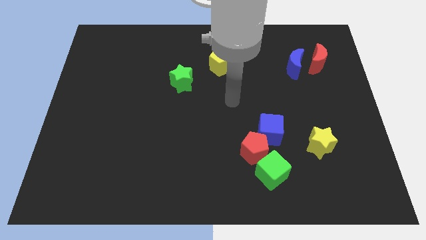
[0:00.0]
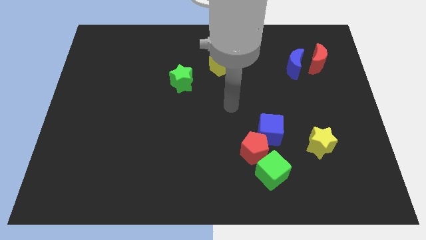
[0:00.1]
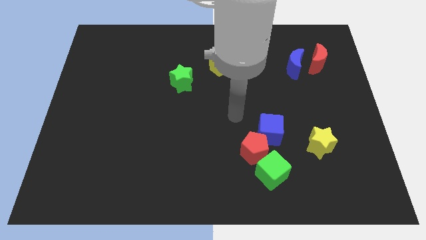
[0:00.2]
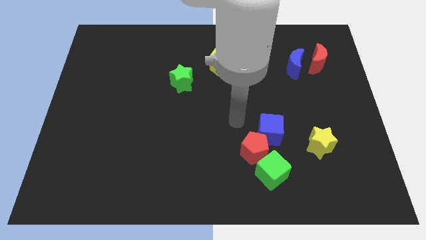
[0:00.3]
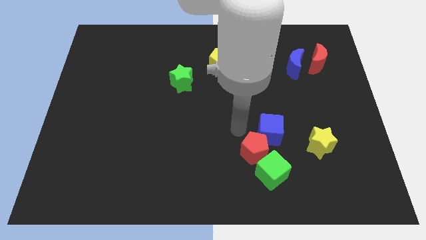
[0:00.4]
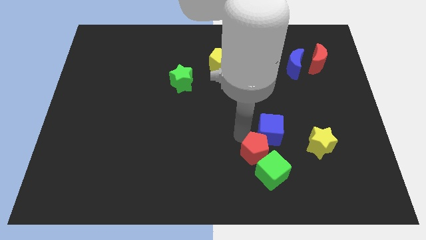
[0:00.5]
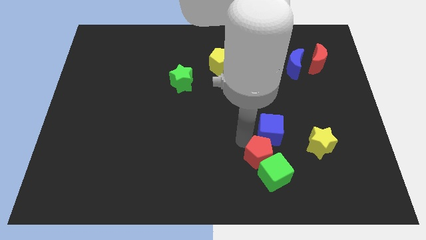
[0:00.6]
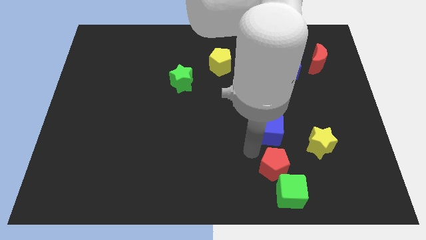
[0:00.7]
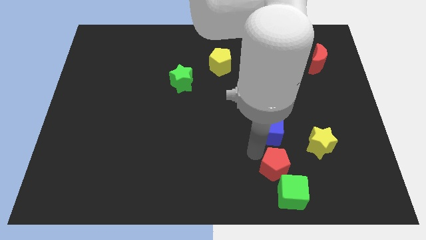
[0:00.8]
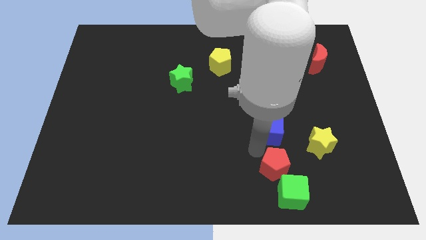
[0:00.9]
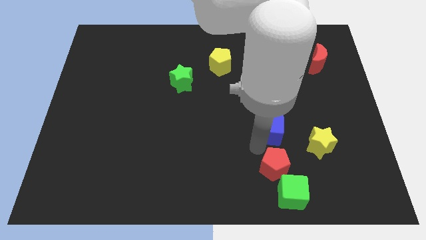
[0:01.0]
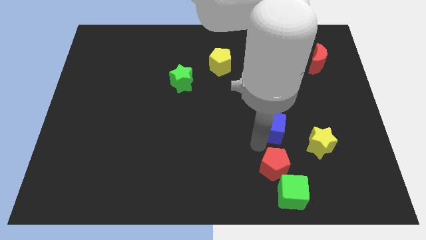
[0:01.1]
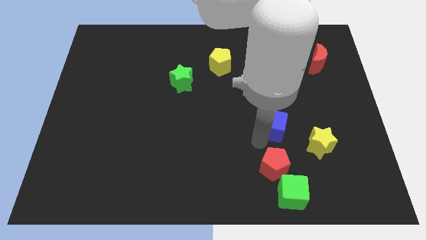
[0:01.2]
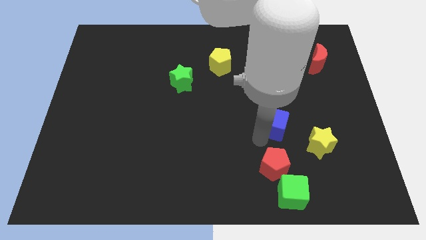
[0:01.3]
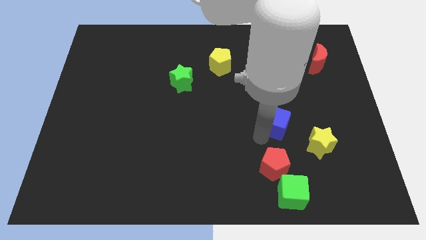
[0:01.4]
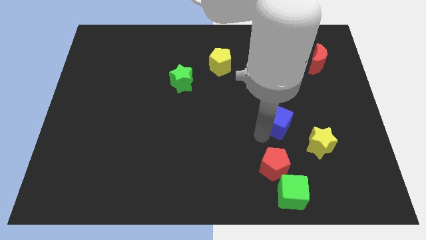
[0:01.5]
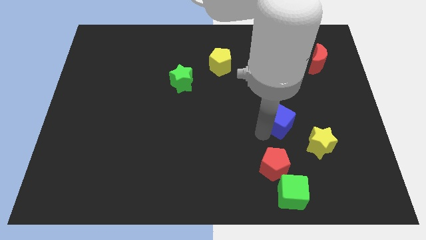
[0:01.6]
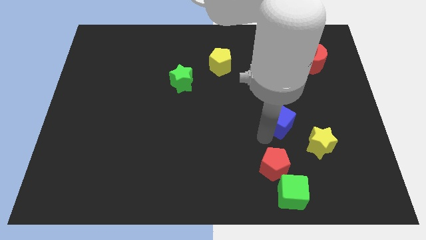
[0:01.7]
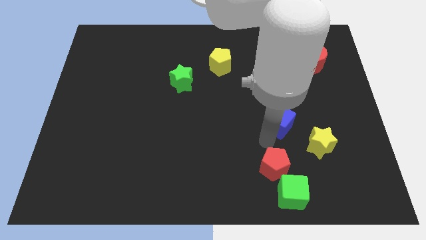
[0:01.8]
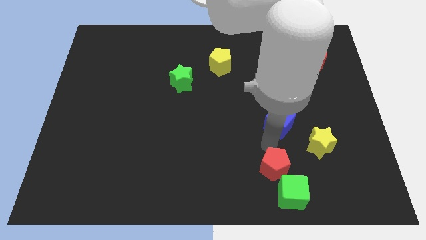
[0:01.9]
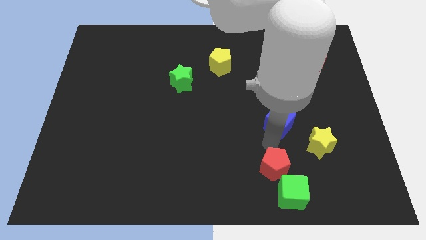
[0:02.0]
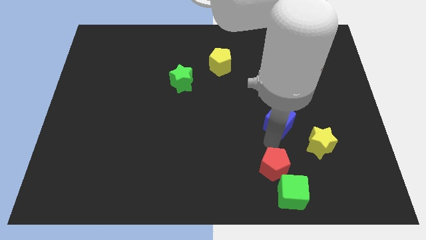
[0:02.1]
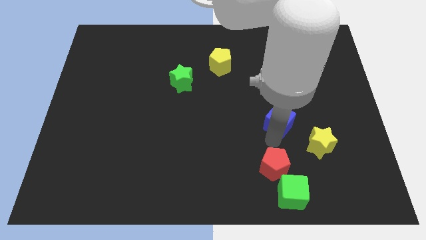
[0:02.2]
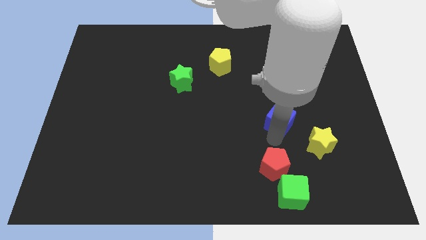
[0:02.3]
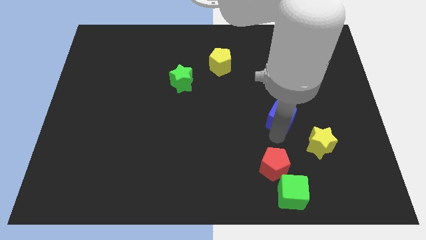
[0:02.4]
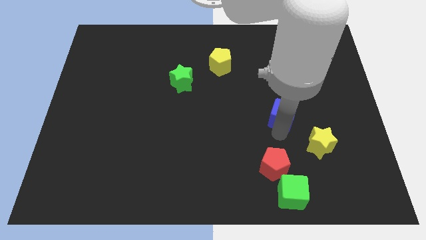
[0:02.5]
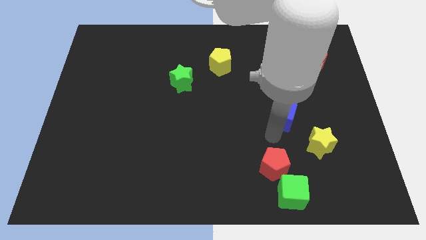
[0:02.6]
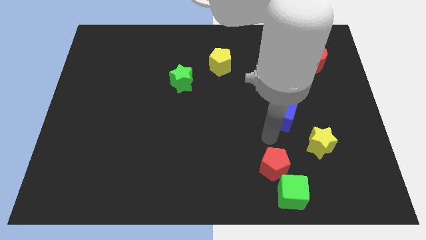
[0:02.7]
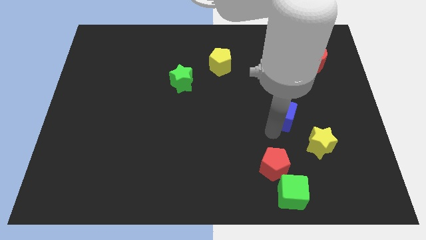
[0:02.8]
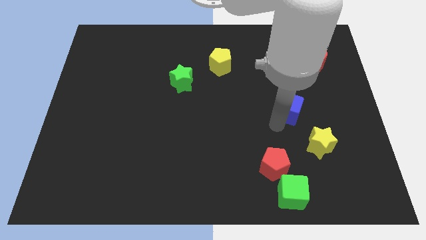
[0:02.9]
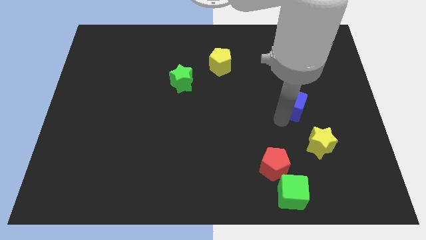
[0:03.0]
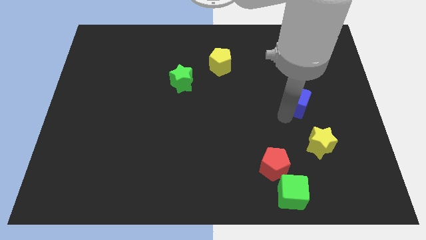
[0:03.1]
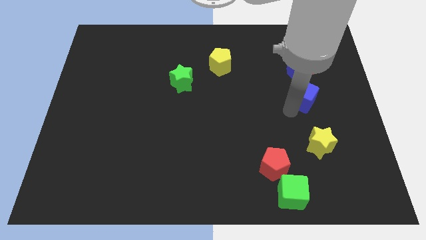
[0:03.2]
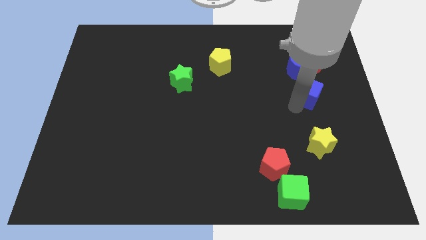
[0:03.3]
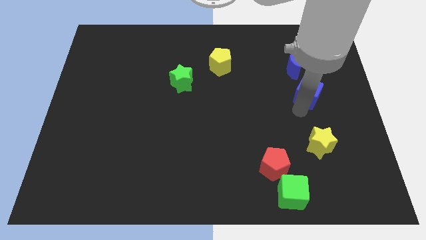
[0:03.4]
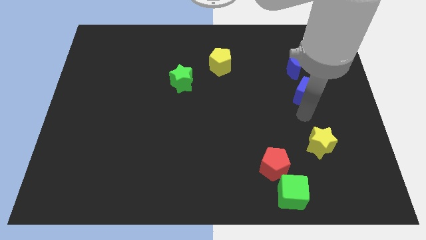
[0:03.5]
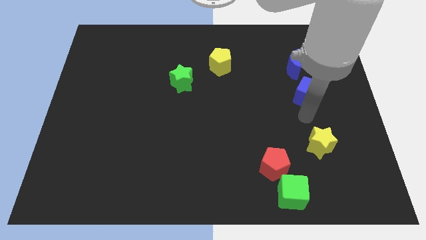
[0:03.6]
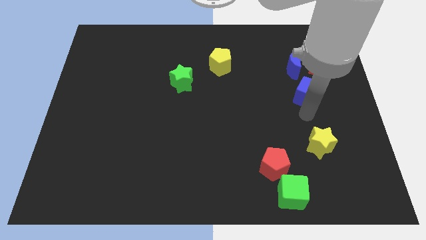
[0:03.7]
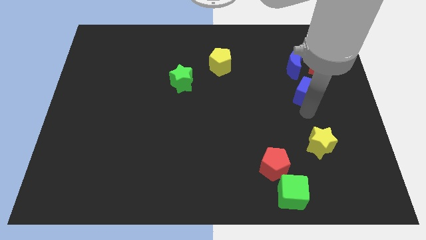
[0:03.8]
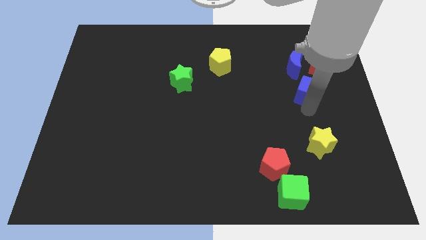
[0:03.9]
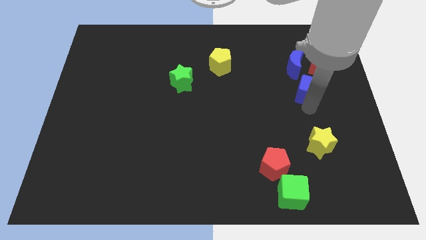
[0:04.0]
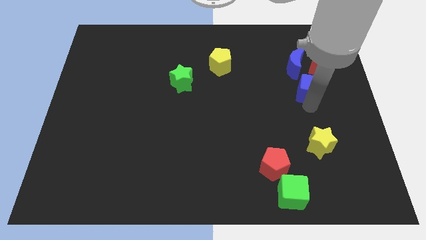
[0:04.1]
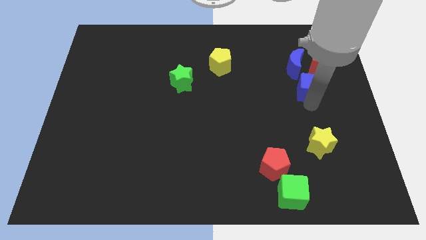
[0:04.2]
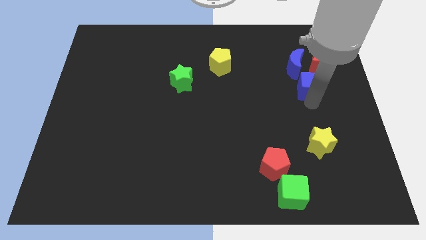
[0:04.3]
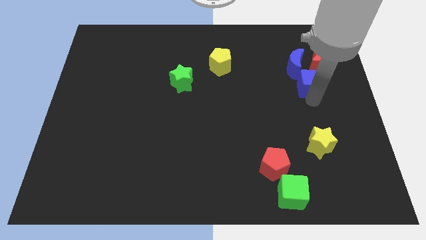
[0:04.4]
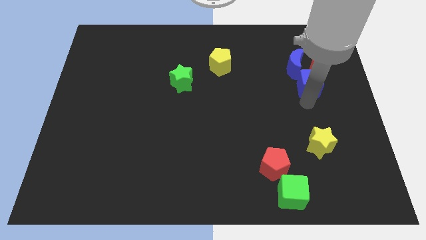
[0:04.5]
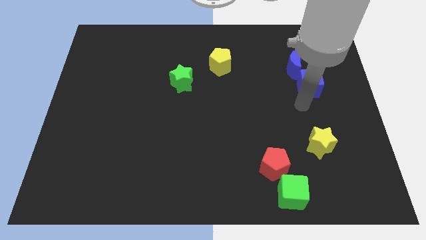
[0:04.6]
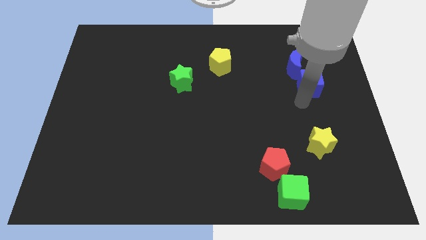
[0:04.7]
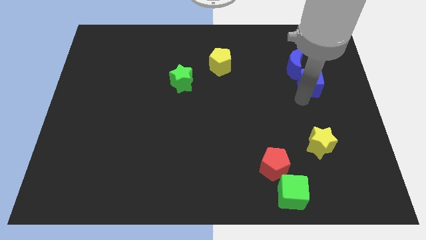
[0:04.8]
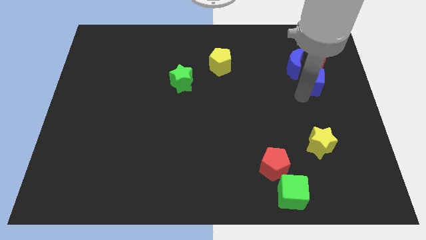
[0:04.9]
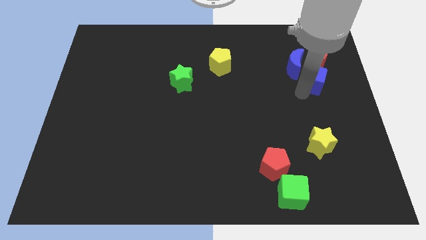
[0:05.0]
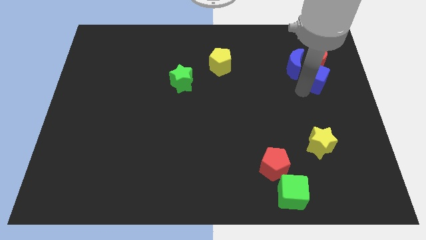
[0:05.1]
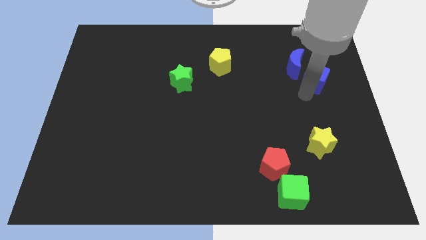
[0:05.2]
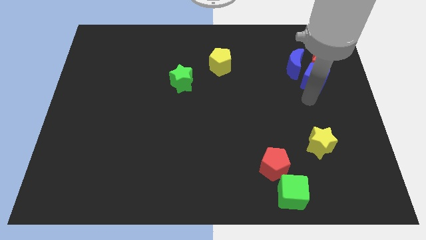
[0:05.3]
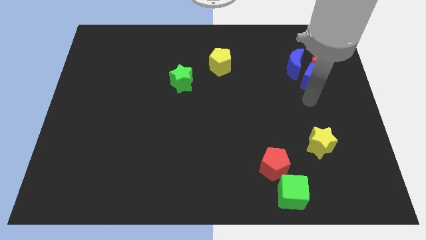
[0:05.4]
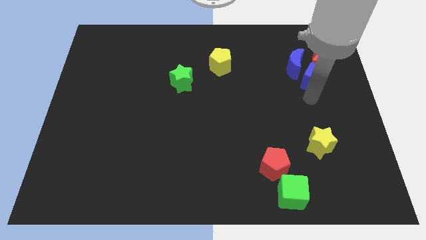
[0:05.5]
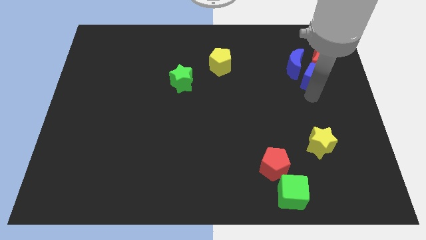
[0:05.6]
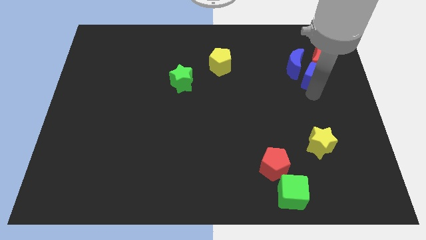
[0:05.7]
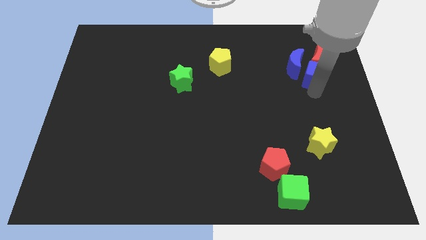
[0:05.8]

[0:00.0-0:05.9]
push the blue cube to the red moon

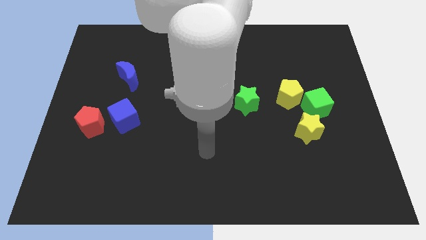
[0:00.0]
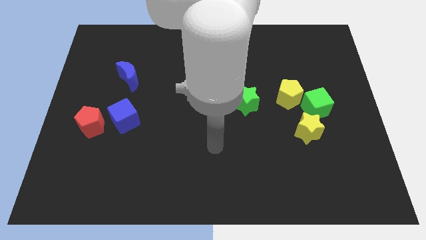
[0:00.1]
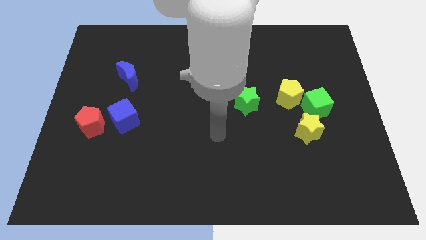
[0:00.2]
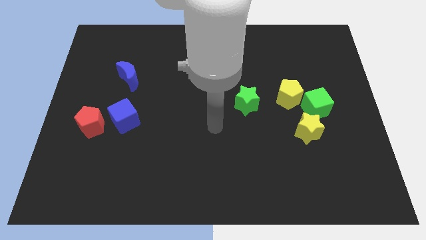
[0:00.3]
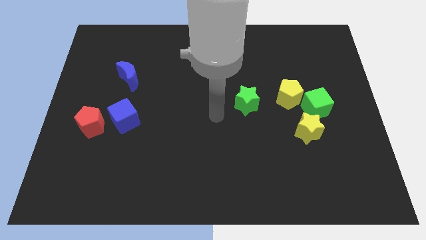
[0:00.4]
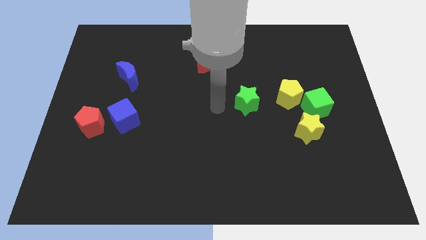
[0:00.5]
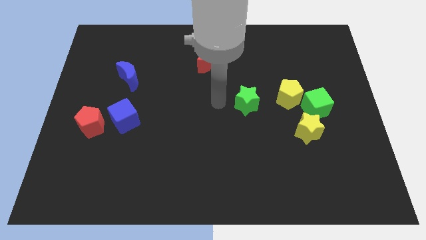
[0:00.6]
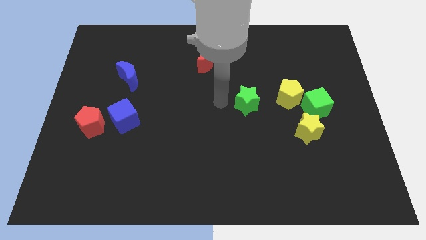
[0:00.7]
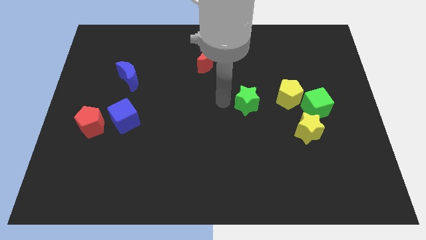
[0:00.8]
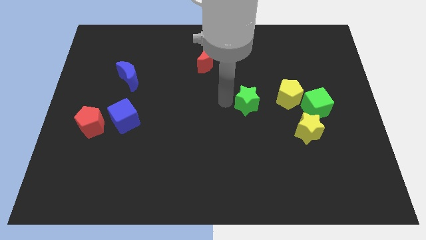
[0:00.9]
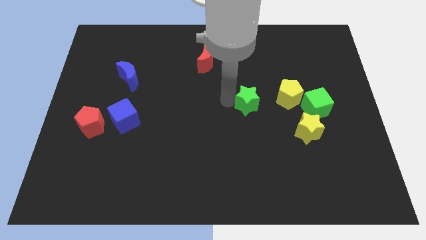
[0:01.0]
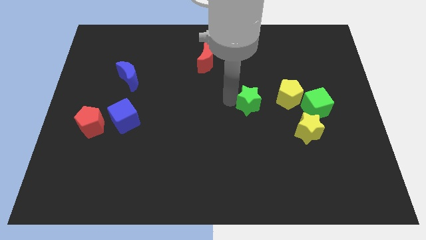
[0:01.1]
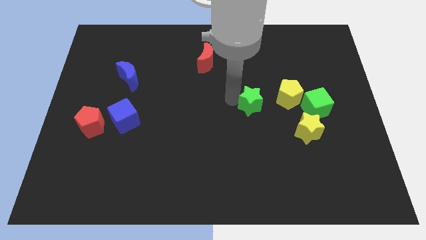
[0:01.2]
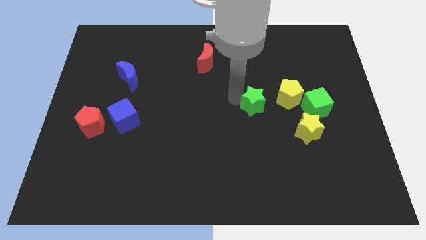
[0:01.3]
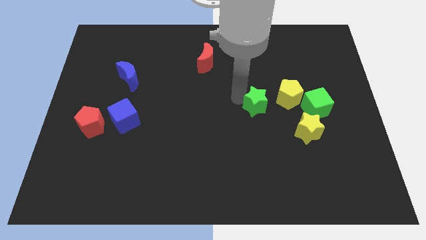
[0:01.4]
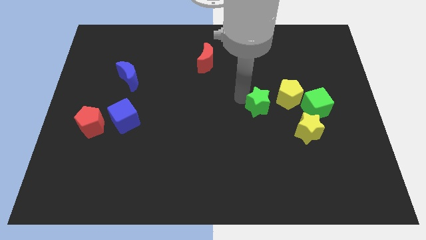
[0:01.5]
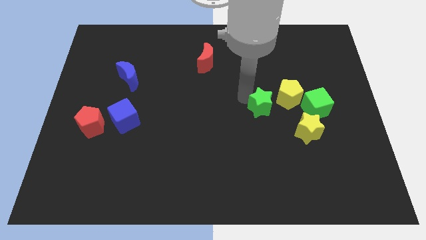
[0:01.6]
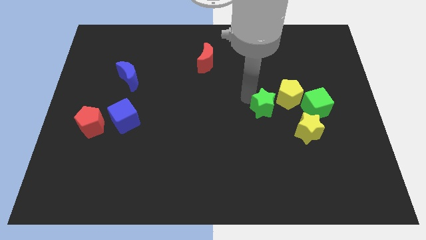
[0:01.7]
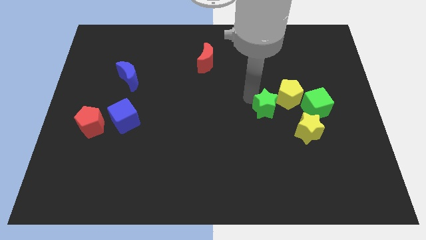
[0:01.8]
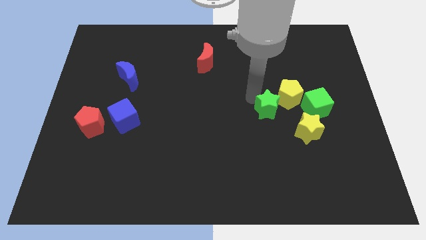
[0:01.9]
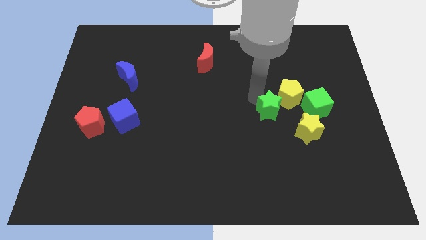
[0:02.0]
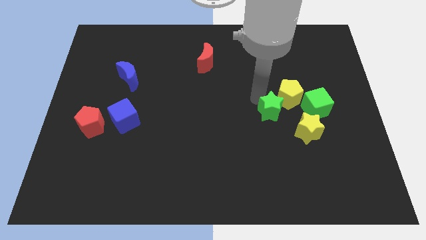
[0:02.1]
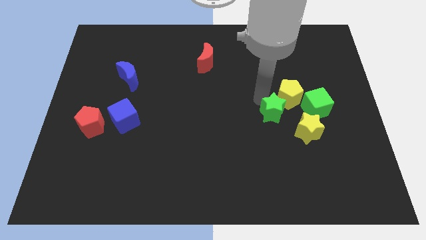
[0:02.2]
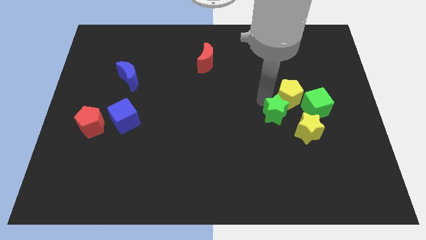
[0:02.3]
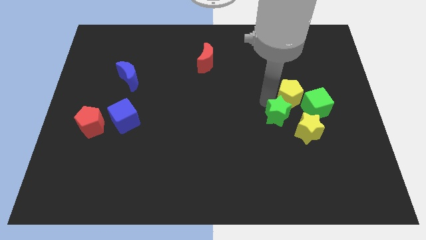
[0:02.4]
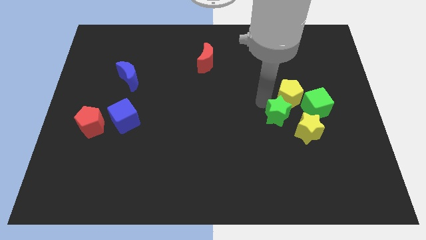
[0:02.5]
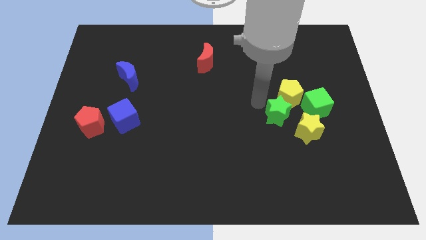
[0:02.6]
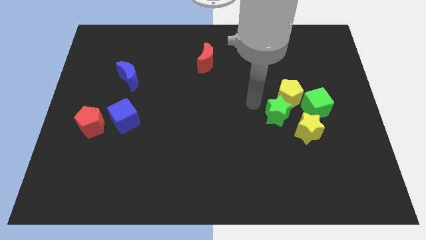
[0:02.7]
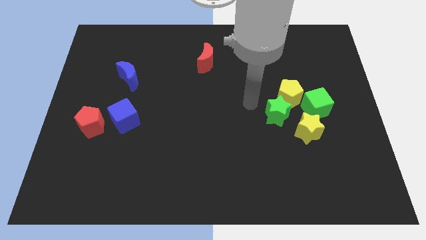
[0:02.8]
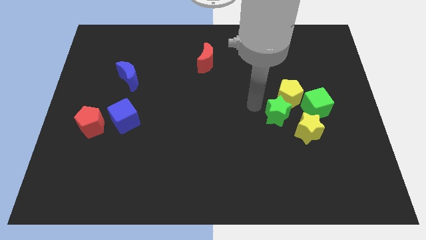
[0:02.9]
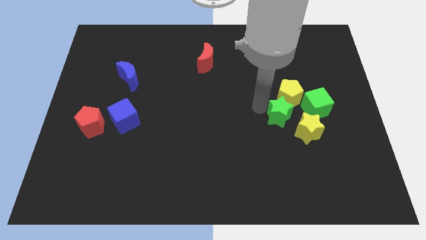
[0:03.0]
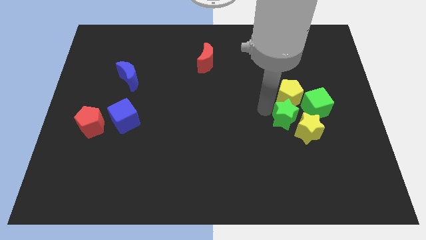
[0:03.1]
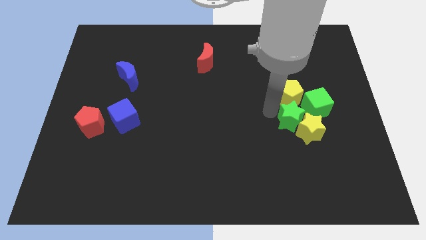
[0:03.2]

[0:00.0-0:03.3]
push the green star close to the yellow star
